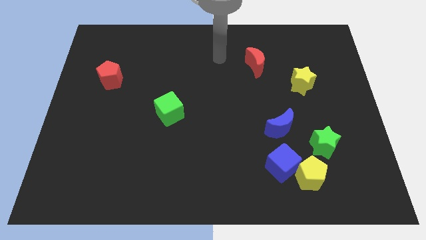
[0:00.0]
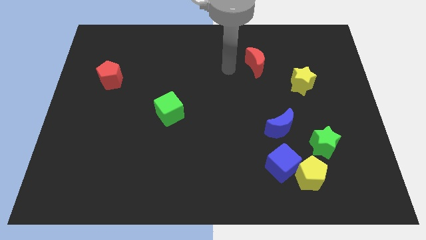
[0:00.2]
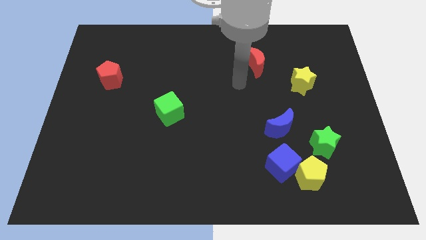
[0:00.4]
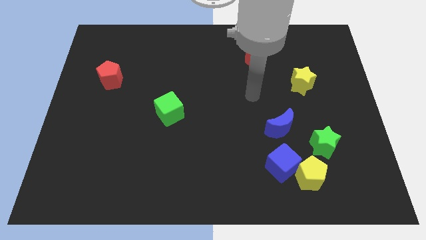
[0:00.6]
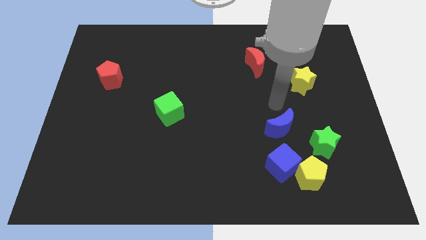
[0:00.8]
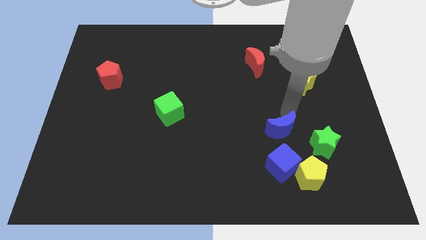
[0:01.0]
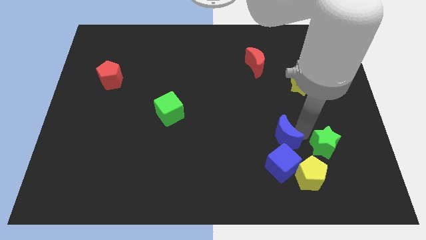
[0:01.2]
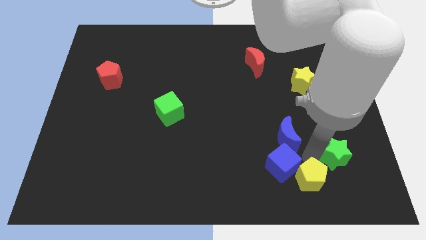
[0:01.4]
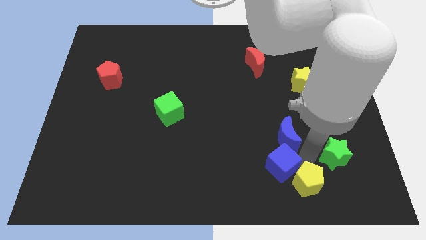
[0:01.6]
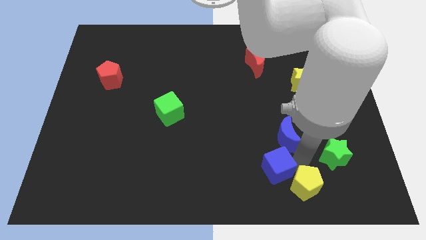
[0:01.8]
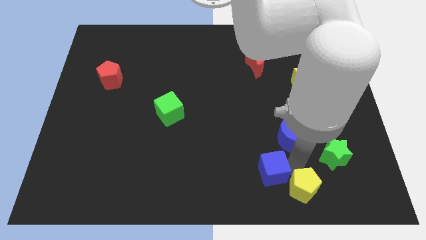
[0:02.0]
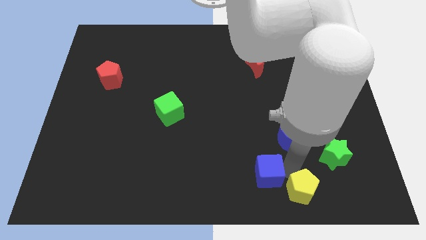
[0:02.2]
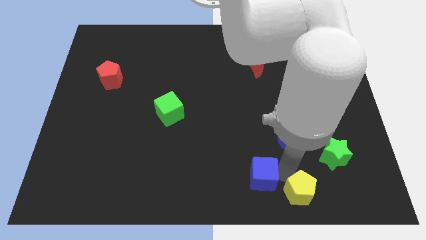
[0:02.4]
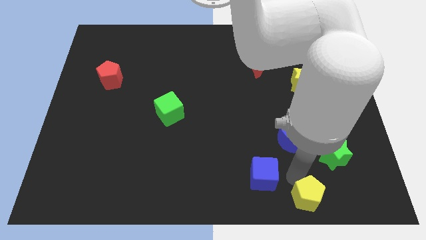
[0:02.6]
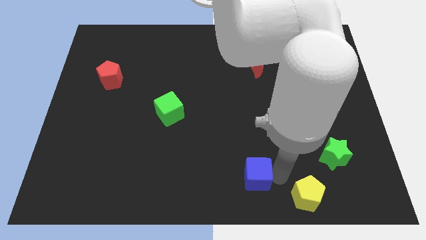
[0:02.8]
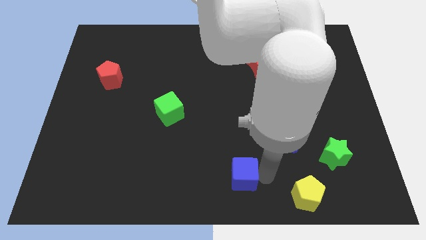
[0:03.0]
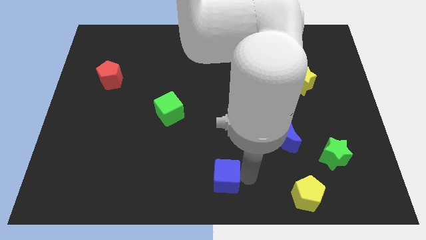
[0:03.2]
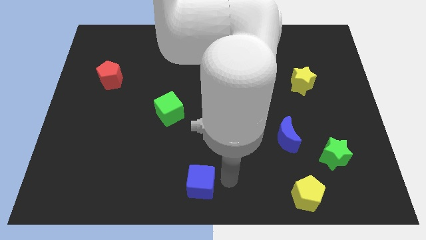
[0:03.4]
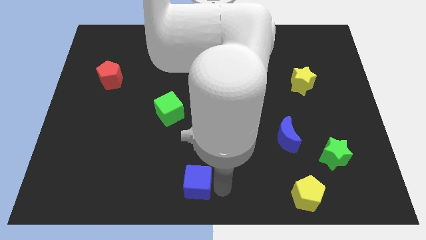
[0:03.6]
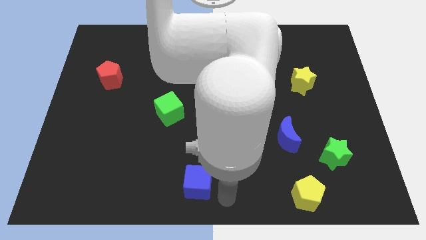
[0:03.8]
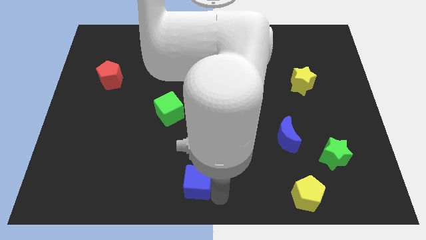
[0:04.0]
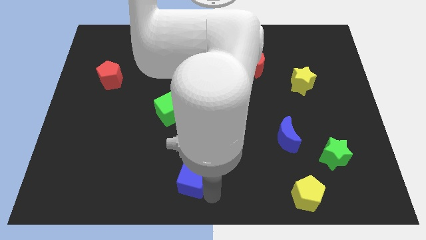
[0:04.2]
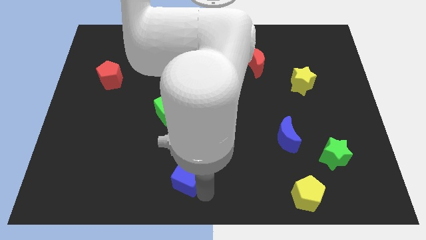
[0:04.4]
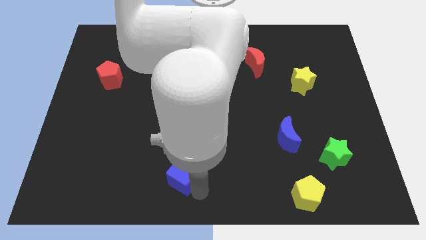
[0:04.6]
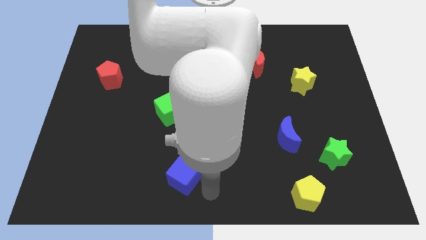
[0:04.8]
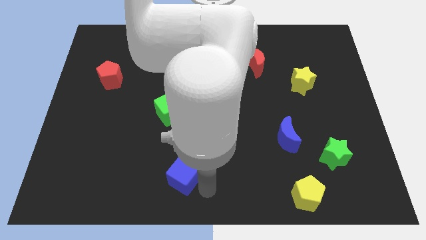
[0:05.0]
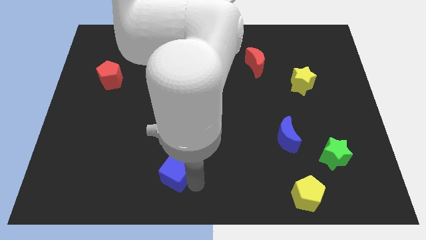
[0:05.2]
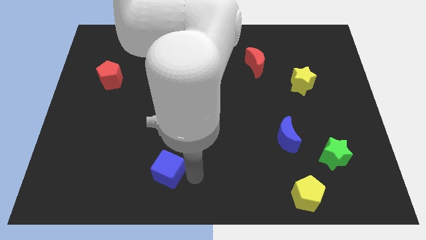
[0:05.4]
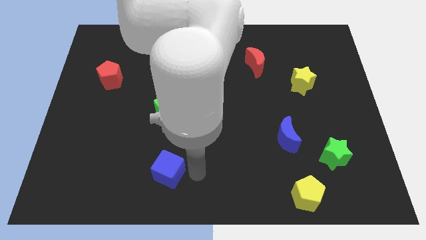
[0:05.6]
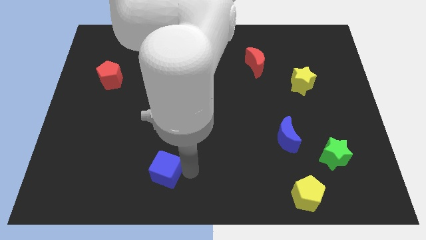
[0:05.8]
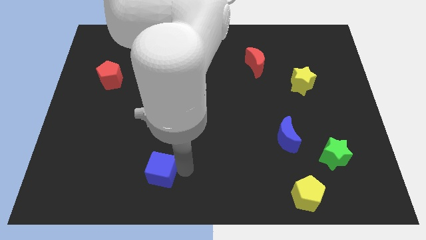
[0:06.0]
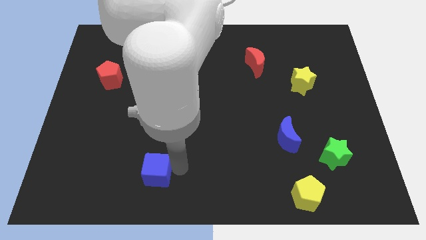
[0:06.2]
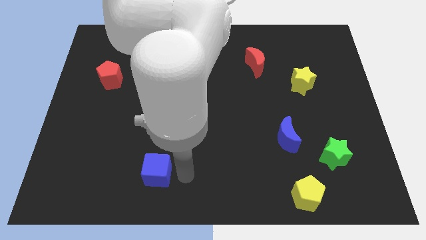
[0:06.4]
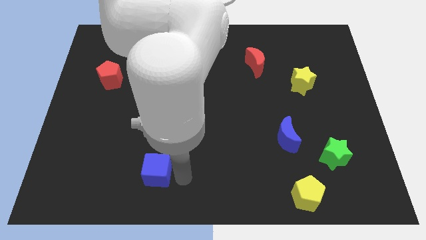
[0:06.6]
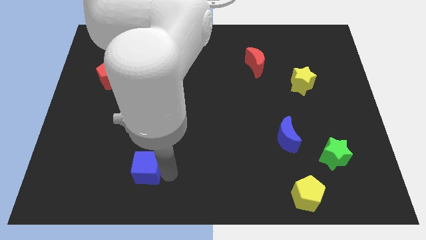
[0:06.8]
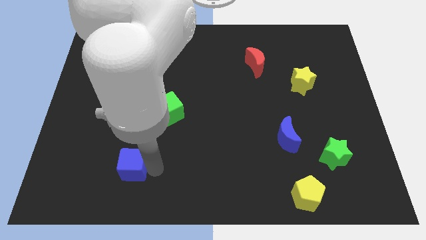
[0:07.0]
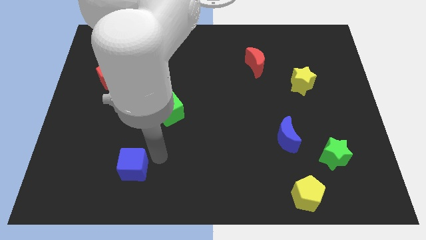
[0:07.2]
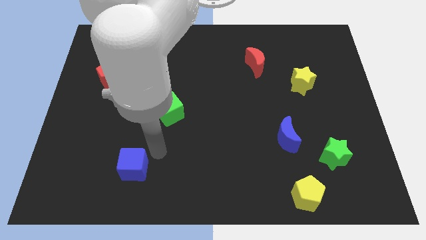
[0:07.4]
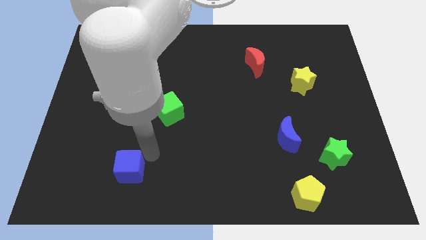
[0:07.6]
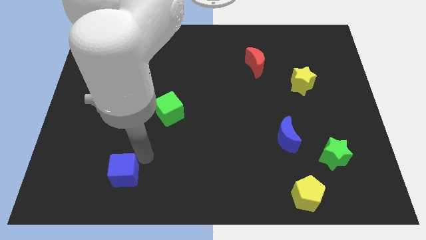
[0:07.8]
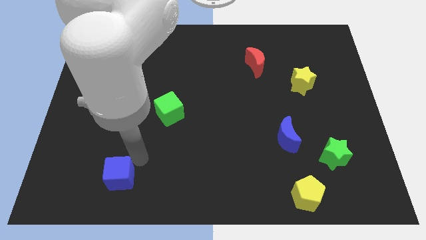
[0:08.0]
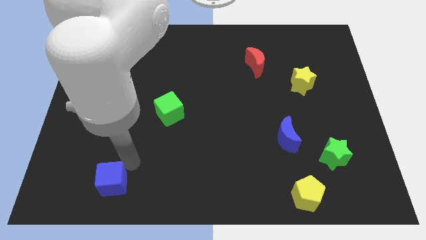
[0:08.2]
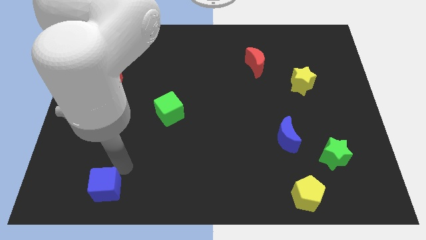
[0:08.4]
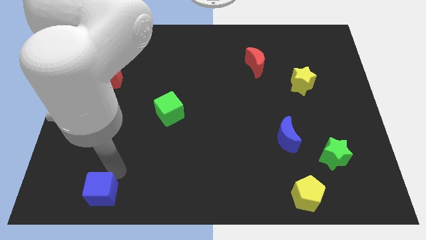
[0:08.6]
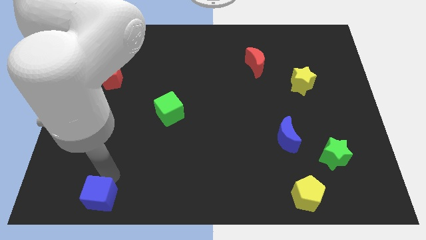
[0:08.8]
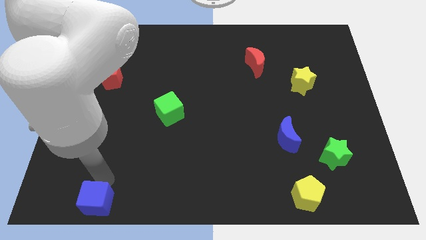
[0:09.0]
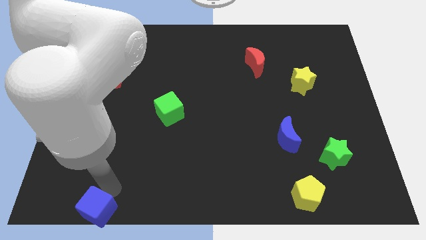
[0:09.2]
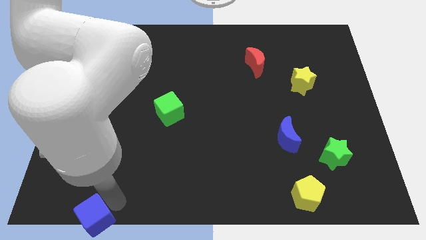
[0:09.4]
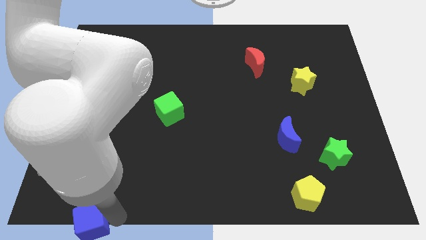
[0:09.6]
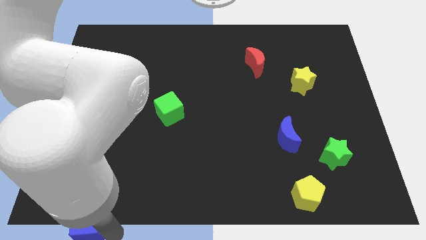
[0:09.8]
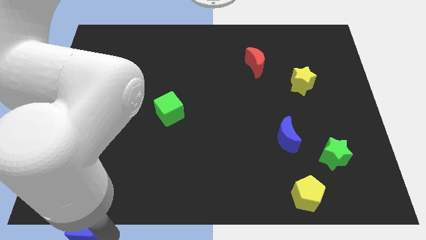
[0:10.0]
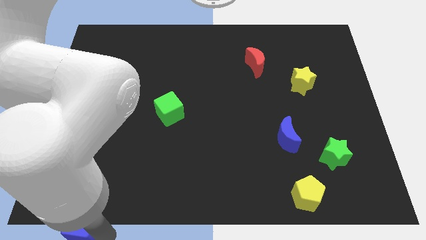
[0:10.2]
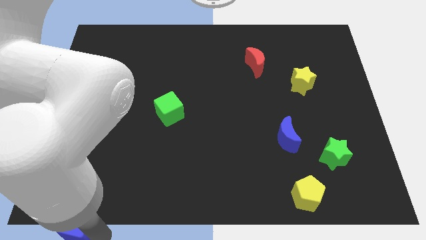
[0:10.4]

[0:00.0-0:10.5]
slide the blue cube to the bottom left corner

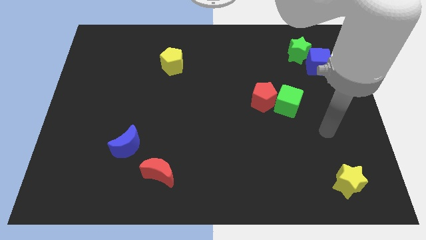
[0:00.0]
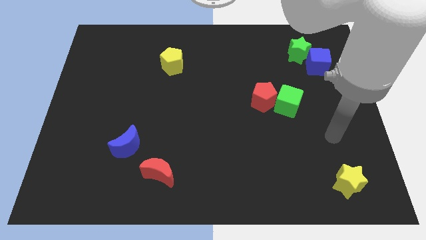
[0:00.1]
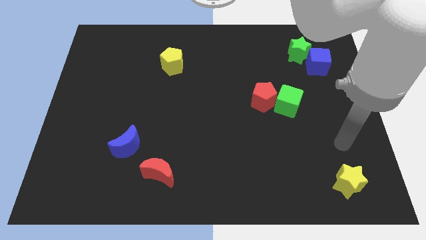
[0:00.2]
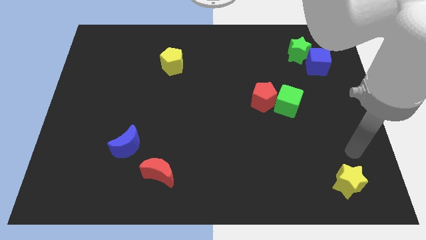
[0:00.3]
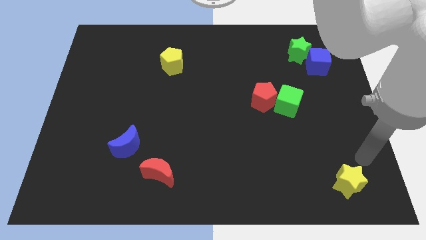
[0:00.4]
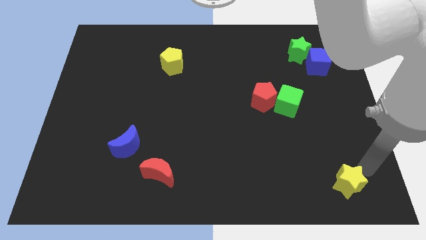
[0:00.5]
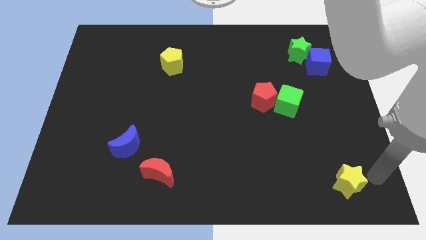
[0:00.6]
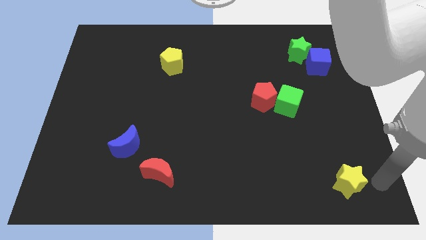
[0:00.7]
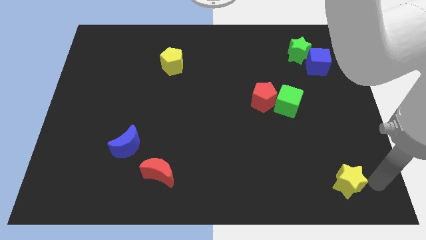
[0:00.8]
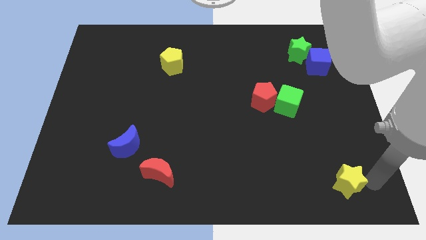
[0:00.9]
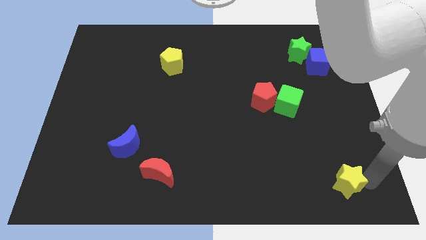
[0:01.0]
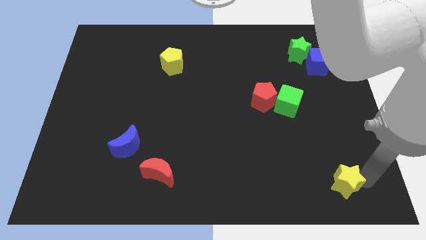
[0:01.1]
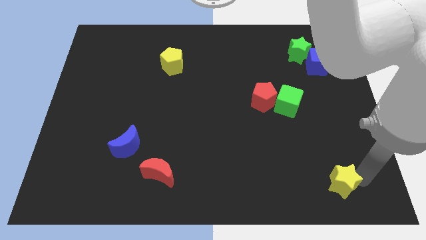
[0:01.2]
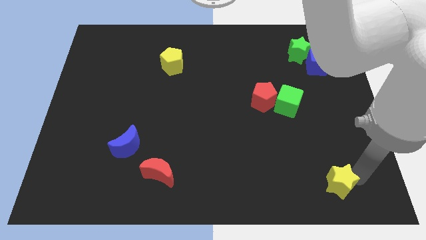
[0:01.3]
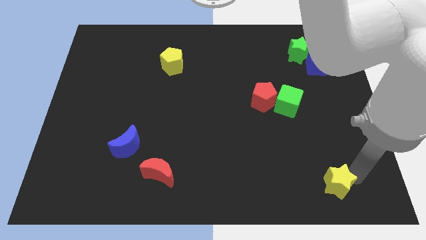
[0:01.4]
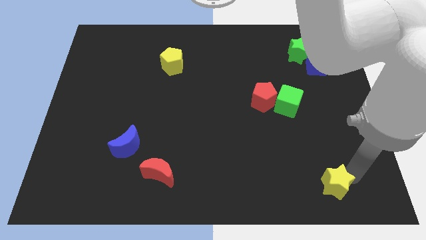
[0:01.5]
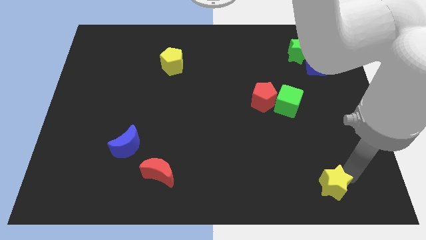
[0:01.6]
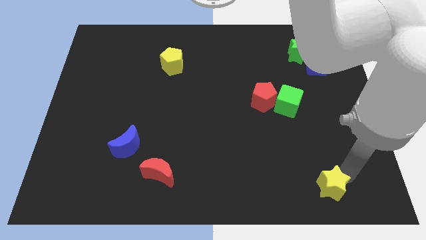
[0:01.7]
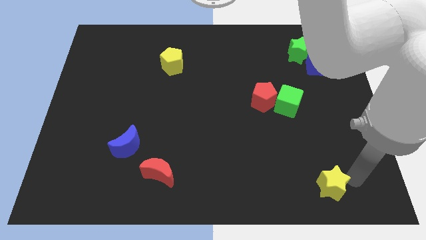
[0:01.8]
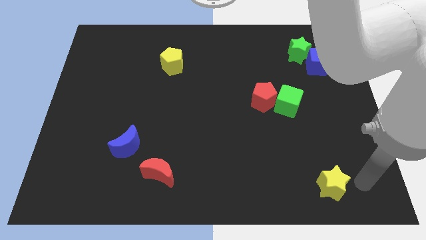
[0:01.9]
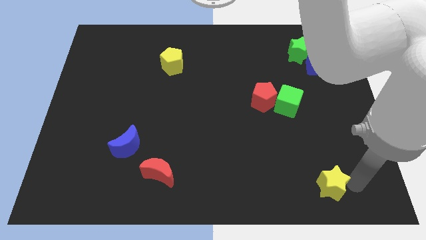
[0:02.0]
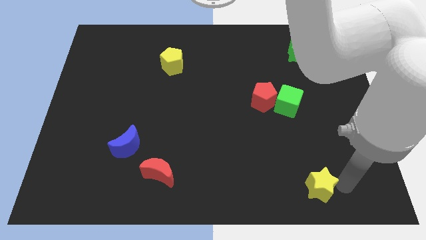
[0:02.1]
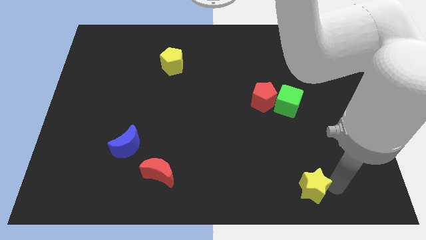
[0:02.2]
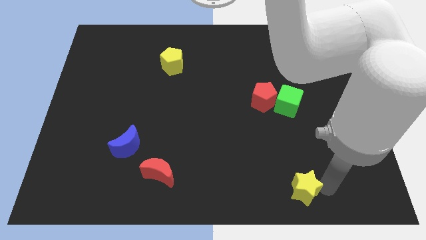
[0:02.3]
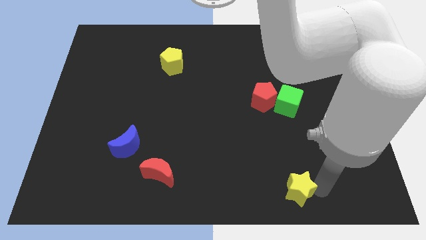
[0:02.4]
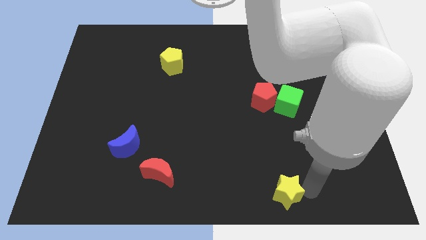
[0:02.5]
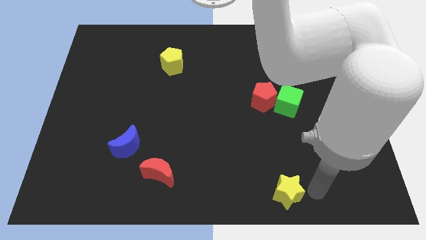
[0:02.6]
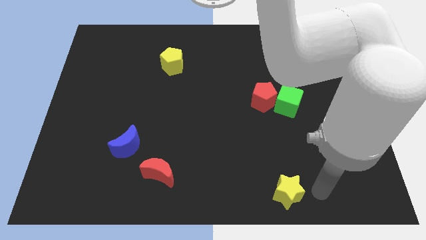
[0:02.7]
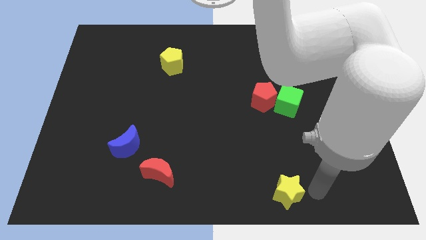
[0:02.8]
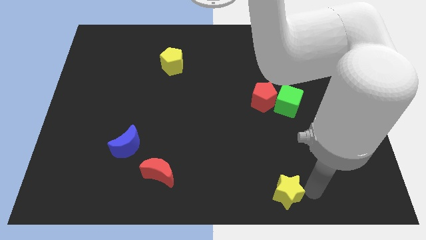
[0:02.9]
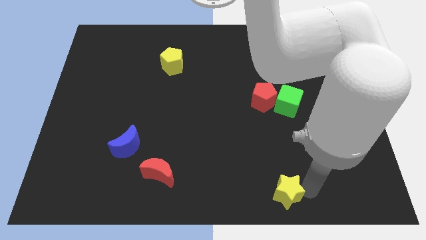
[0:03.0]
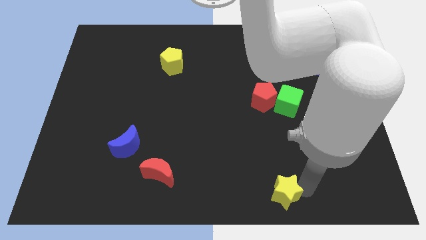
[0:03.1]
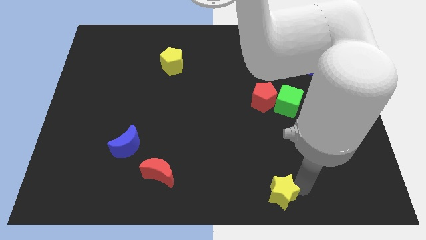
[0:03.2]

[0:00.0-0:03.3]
slide the yellow star to the bottom side
